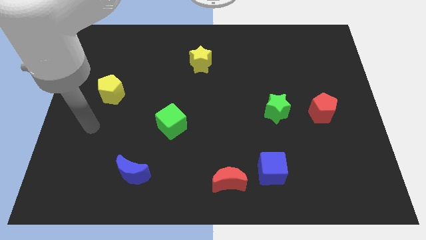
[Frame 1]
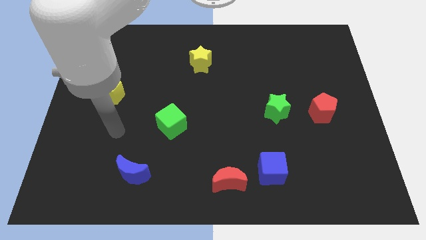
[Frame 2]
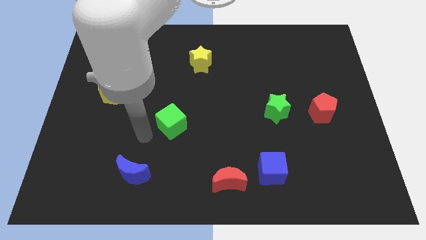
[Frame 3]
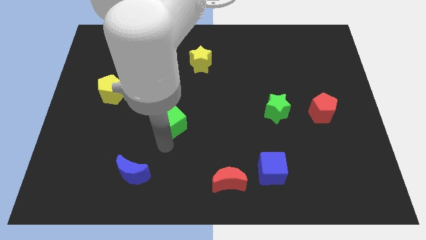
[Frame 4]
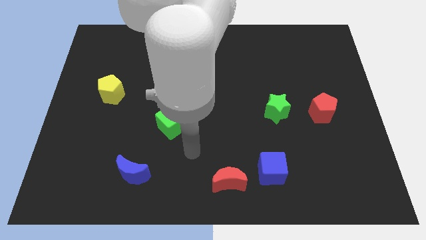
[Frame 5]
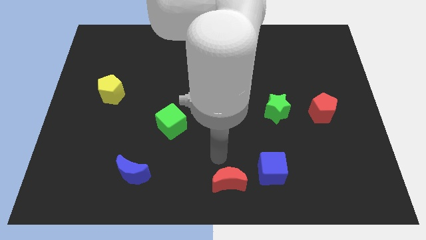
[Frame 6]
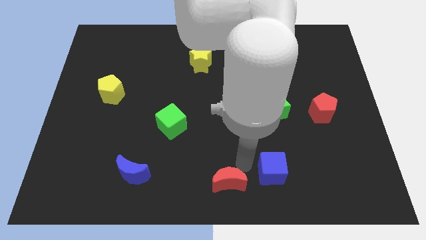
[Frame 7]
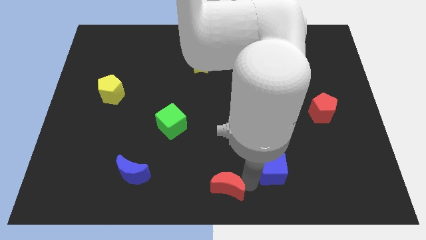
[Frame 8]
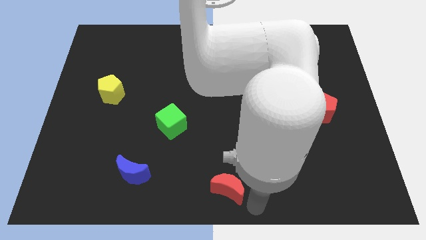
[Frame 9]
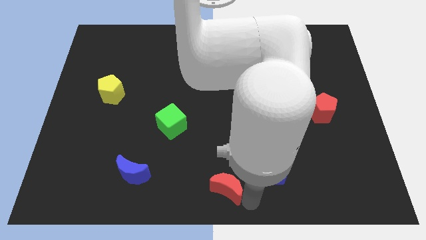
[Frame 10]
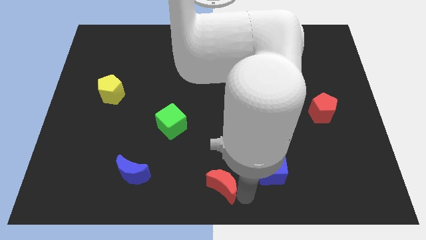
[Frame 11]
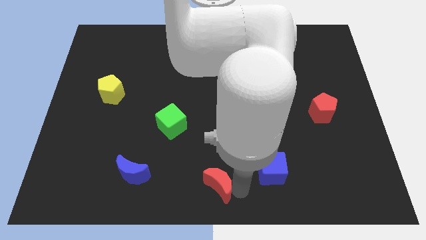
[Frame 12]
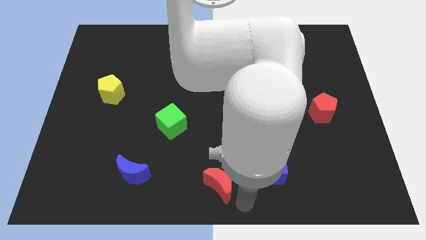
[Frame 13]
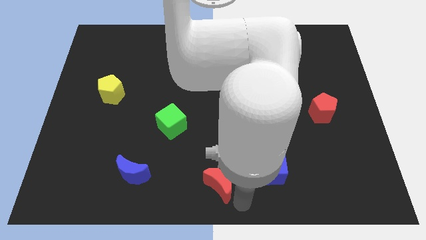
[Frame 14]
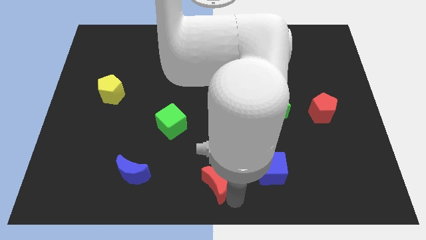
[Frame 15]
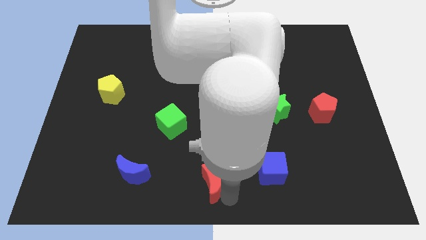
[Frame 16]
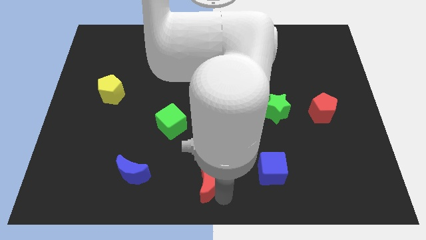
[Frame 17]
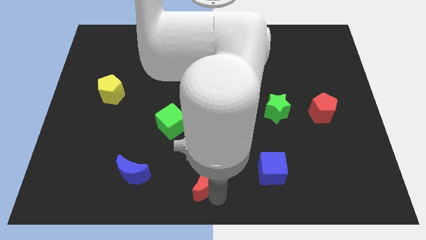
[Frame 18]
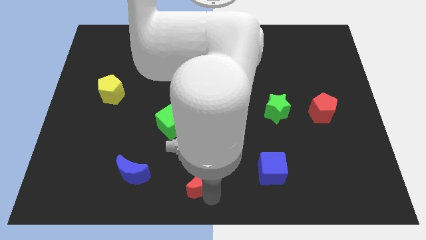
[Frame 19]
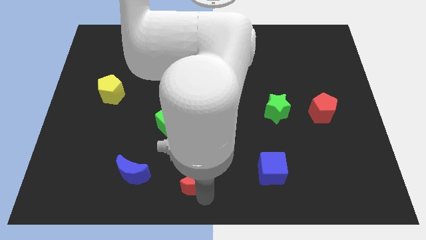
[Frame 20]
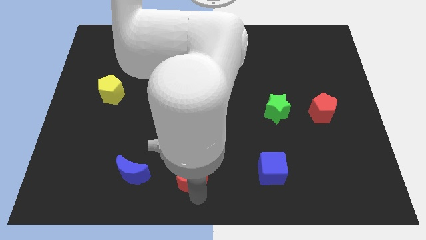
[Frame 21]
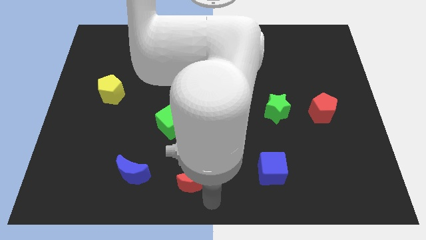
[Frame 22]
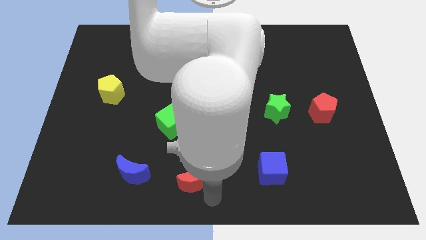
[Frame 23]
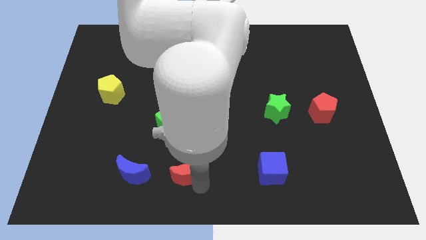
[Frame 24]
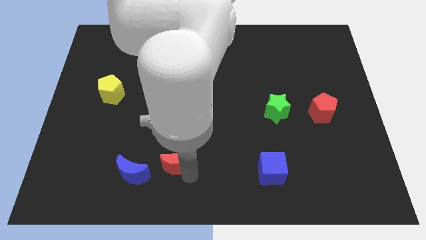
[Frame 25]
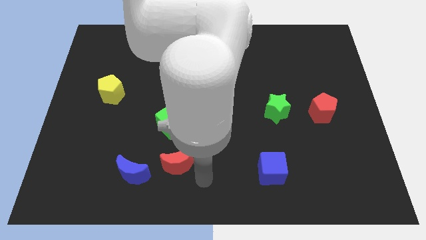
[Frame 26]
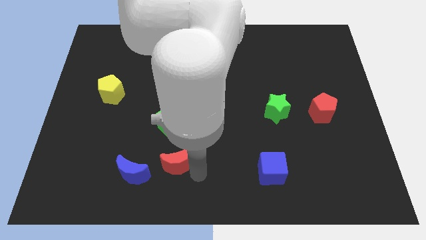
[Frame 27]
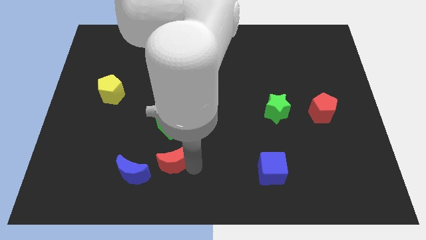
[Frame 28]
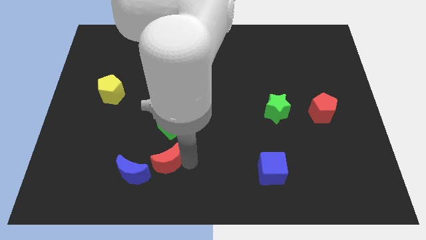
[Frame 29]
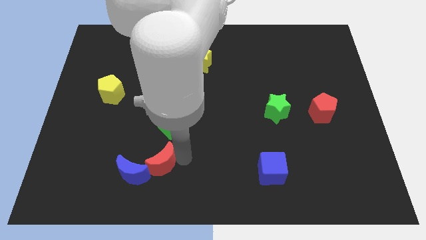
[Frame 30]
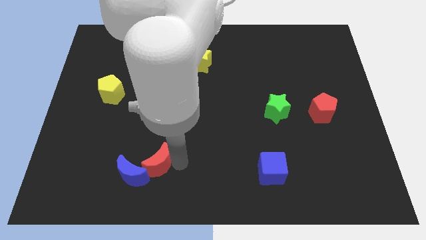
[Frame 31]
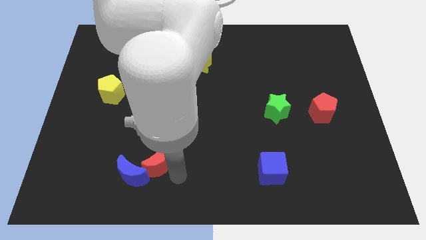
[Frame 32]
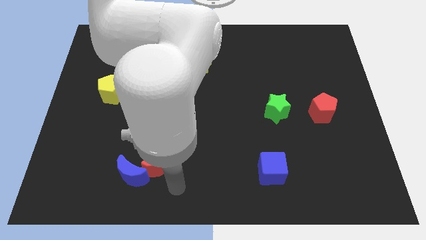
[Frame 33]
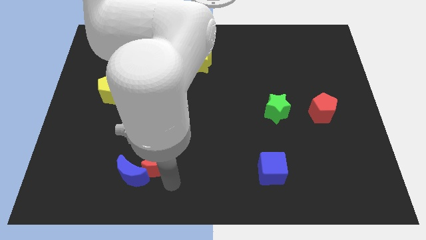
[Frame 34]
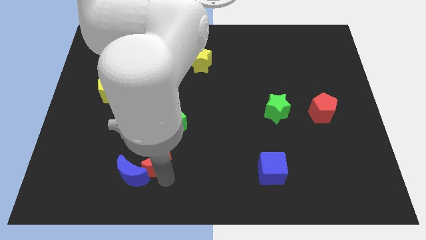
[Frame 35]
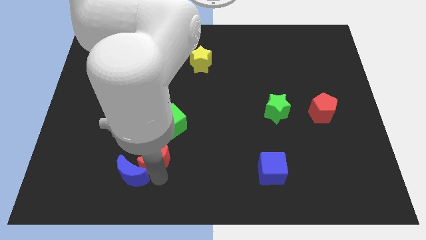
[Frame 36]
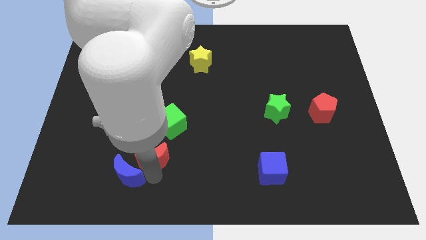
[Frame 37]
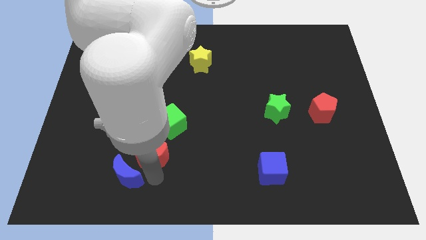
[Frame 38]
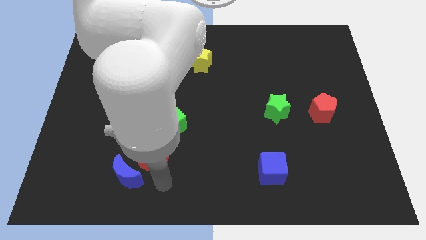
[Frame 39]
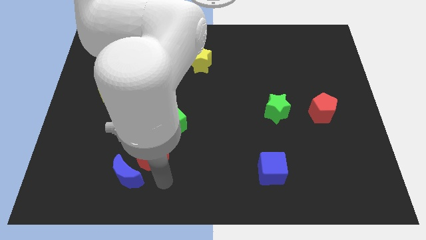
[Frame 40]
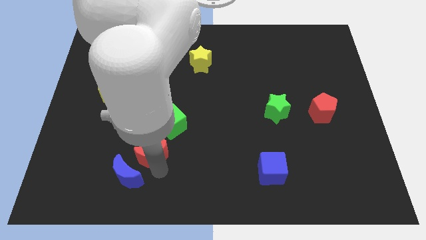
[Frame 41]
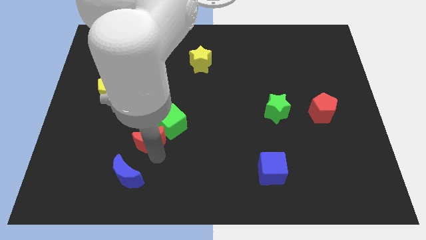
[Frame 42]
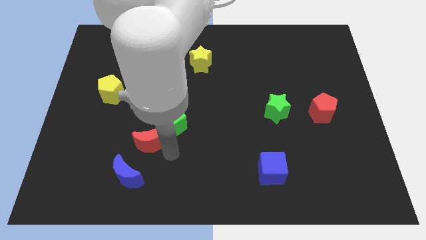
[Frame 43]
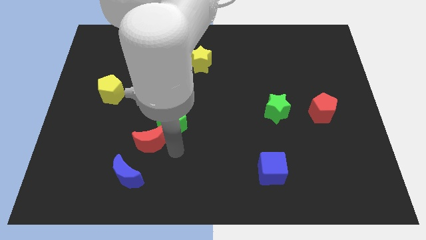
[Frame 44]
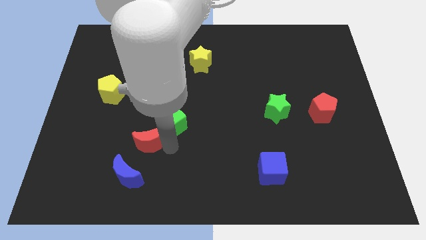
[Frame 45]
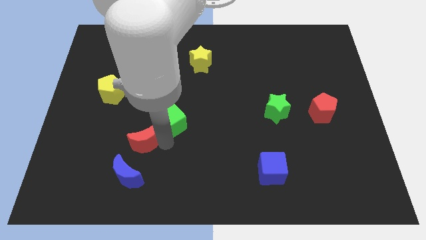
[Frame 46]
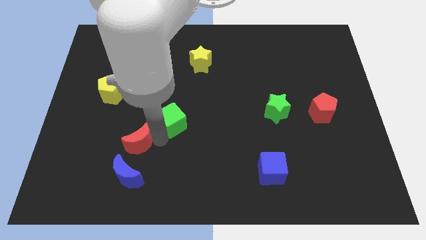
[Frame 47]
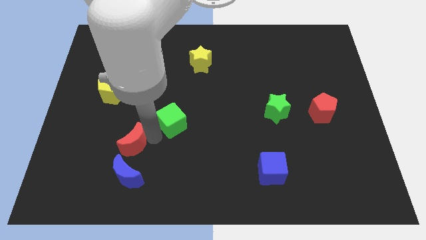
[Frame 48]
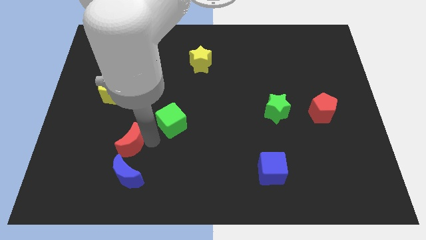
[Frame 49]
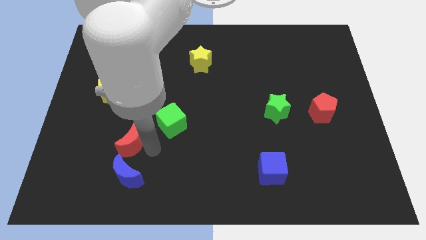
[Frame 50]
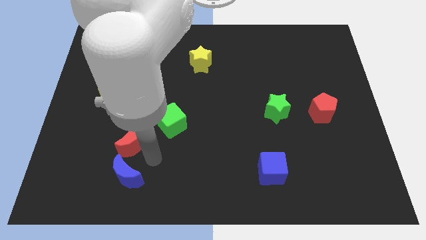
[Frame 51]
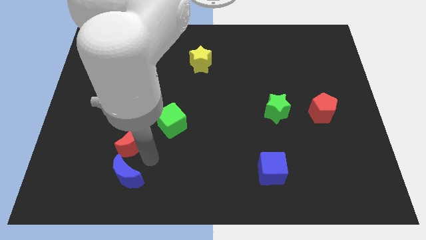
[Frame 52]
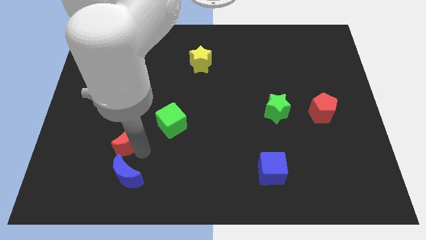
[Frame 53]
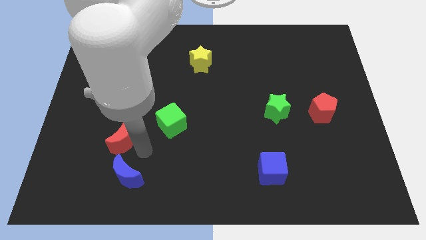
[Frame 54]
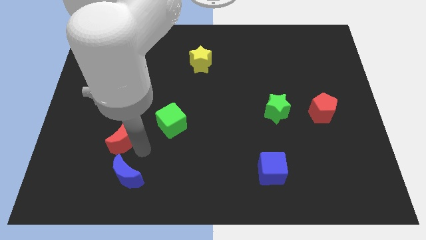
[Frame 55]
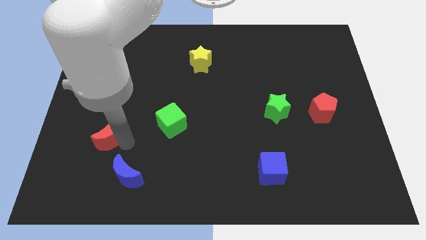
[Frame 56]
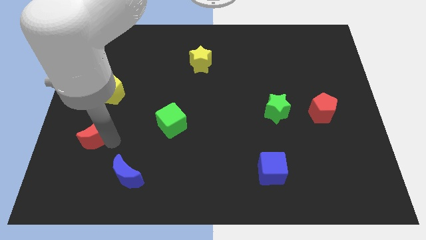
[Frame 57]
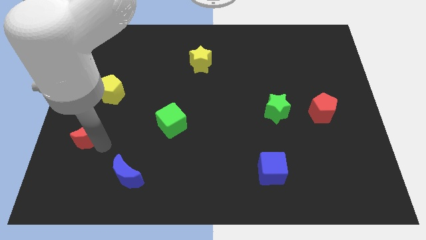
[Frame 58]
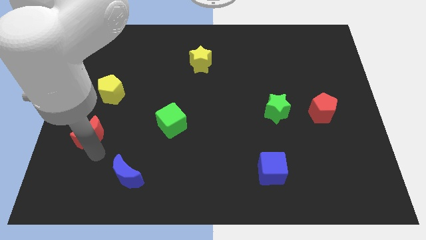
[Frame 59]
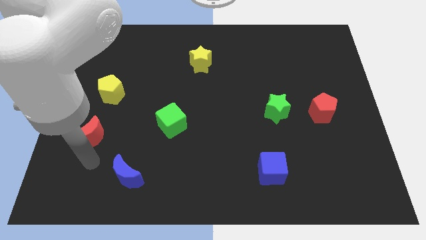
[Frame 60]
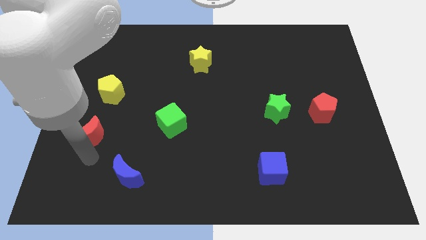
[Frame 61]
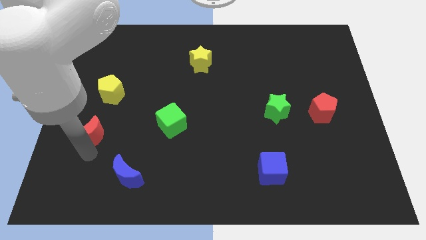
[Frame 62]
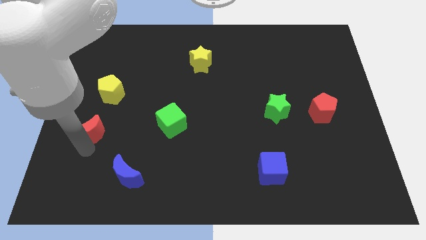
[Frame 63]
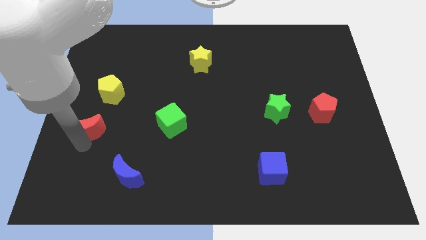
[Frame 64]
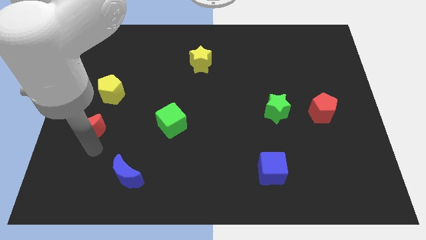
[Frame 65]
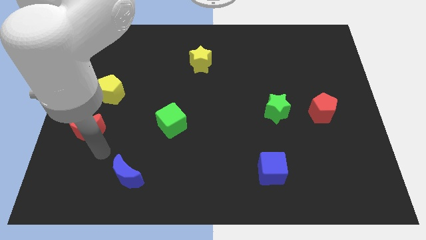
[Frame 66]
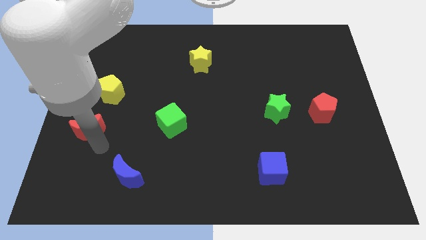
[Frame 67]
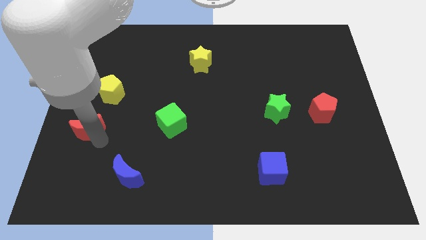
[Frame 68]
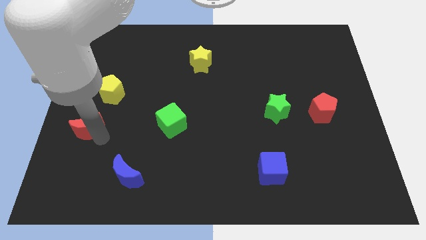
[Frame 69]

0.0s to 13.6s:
slide the red moon to the left side
